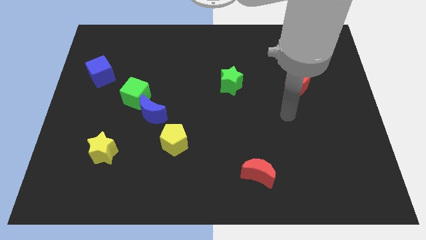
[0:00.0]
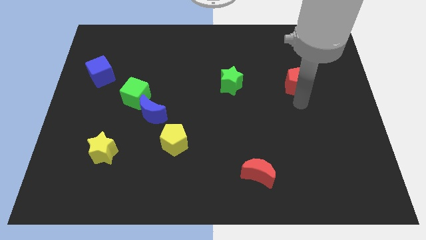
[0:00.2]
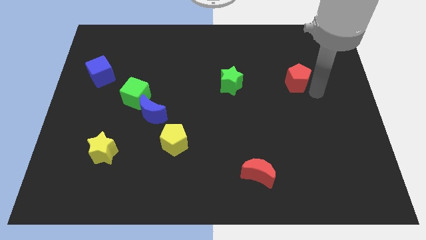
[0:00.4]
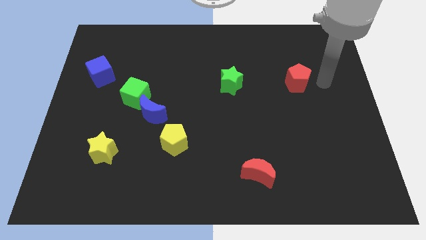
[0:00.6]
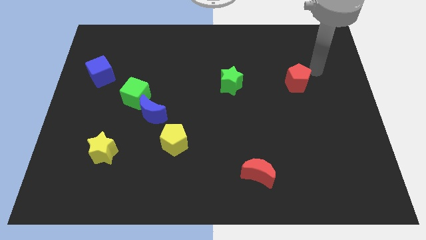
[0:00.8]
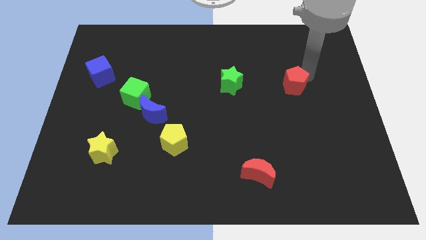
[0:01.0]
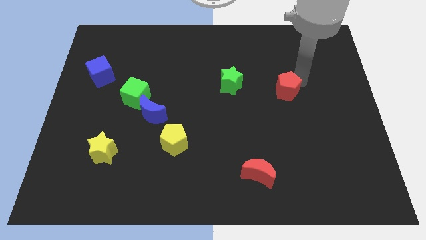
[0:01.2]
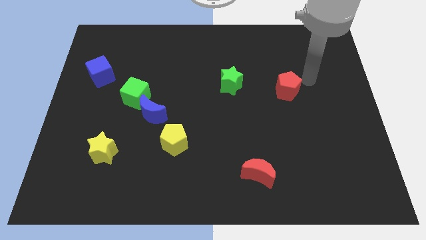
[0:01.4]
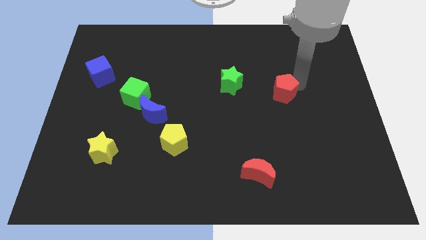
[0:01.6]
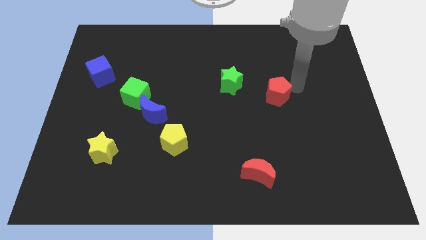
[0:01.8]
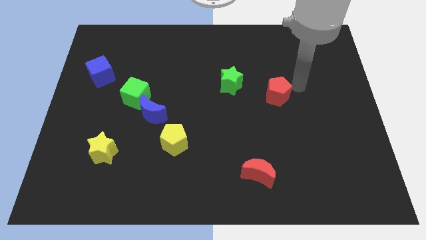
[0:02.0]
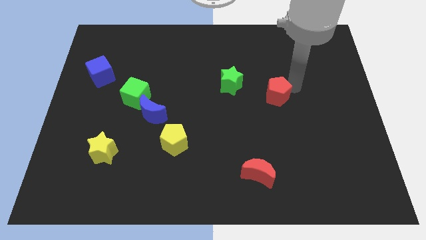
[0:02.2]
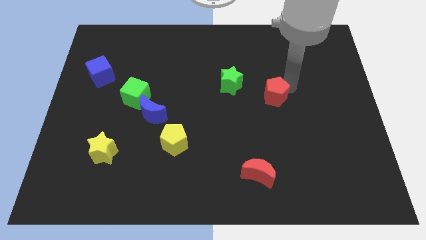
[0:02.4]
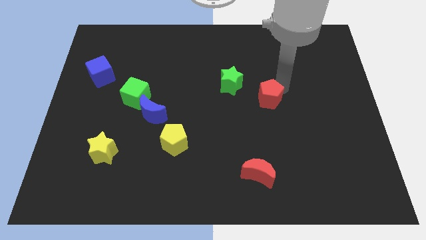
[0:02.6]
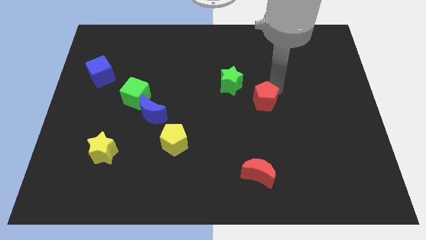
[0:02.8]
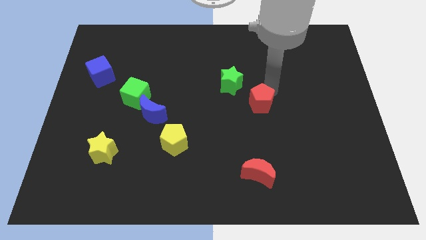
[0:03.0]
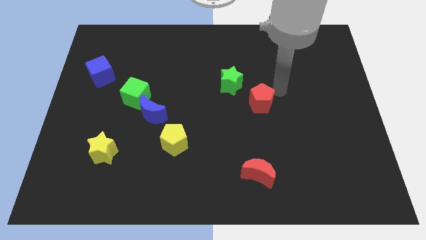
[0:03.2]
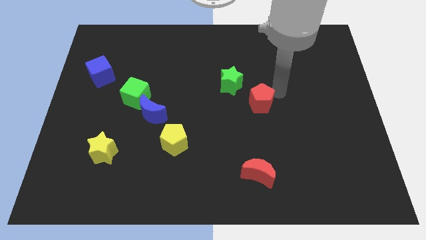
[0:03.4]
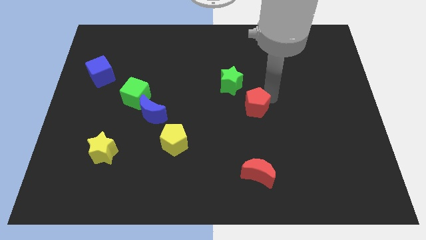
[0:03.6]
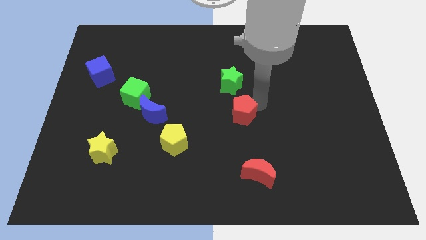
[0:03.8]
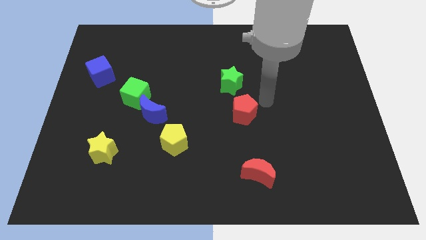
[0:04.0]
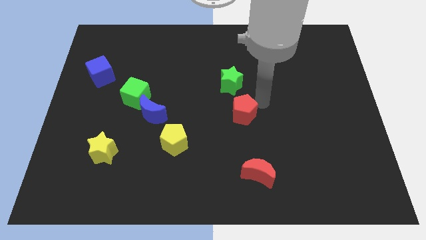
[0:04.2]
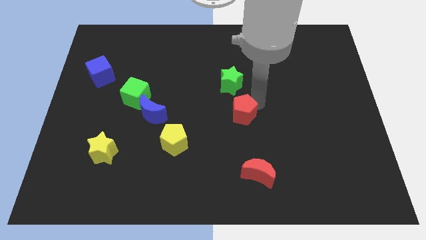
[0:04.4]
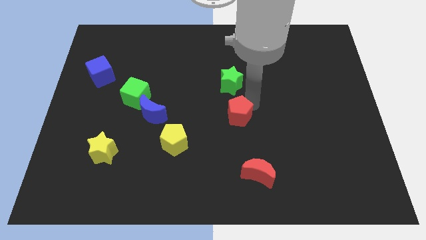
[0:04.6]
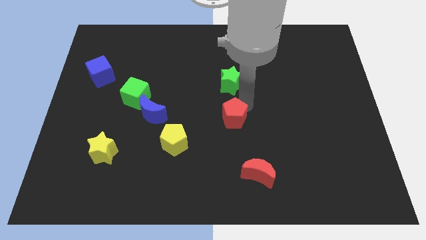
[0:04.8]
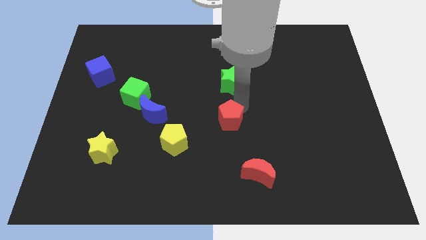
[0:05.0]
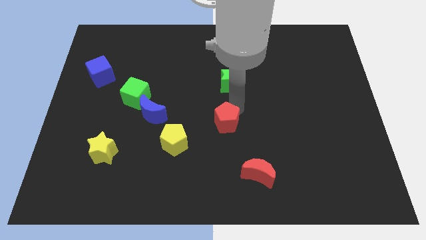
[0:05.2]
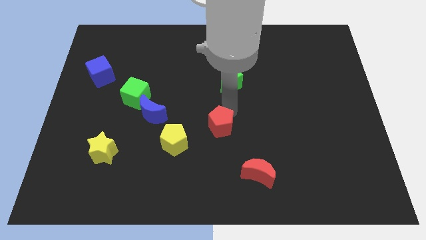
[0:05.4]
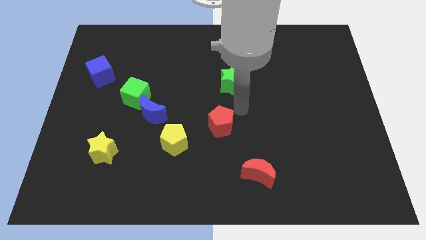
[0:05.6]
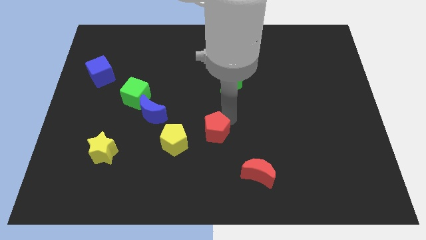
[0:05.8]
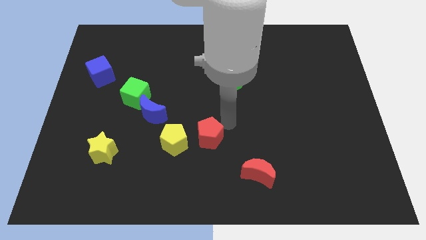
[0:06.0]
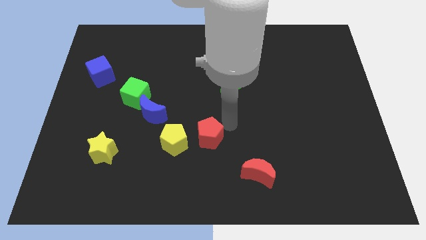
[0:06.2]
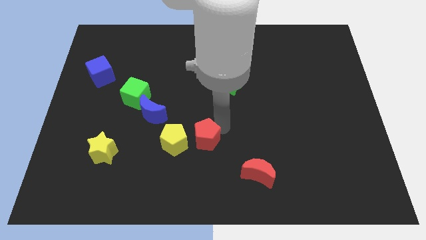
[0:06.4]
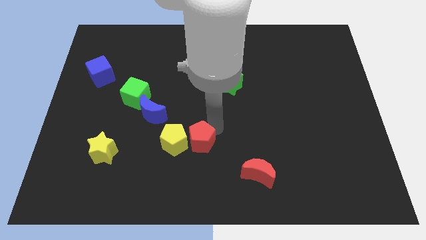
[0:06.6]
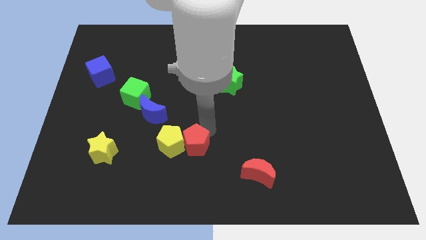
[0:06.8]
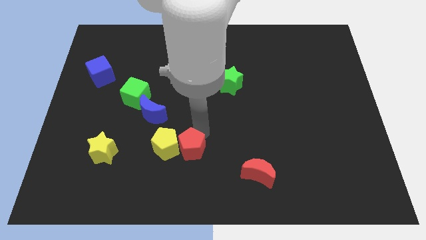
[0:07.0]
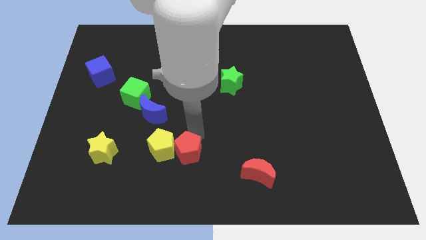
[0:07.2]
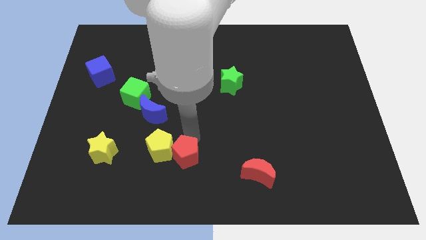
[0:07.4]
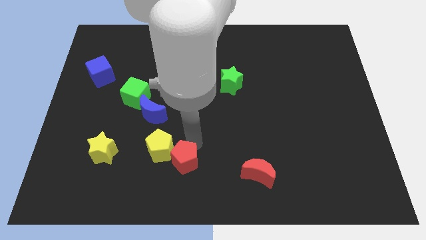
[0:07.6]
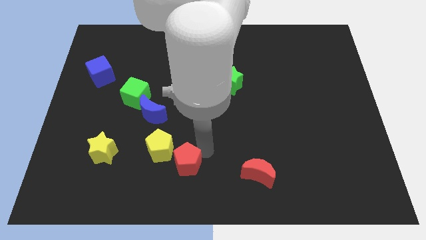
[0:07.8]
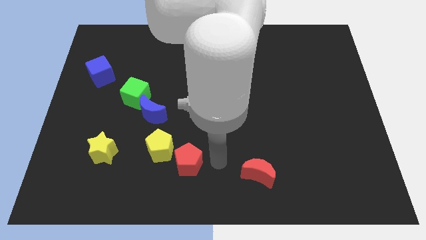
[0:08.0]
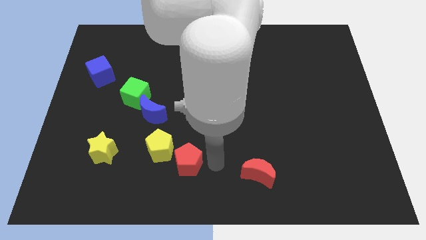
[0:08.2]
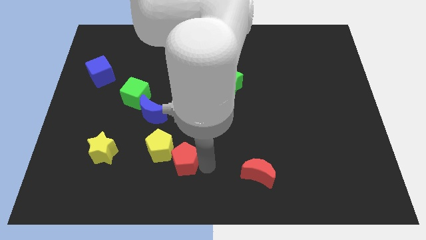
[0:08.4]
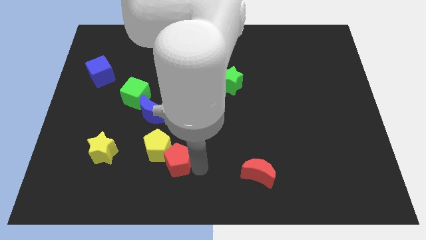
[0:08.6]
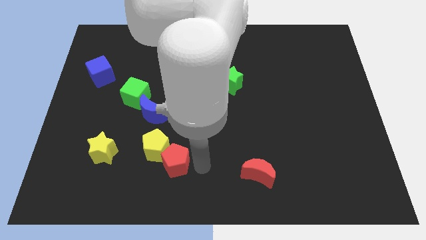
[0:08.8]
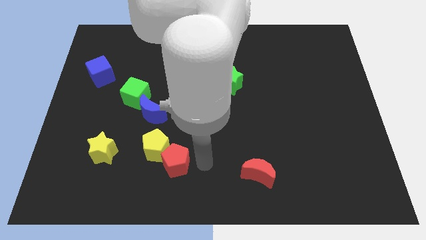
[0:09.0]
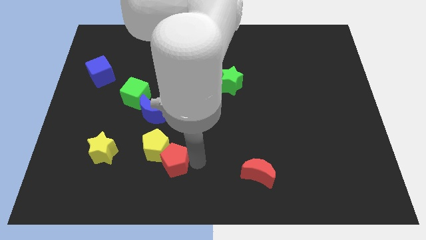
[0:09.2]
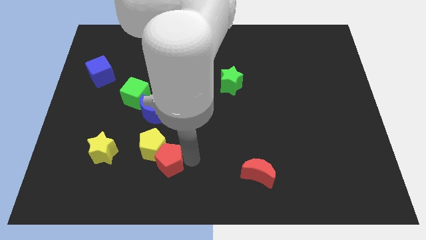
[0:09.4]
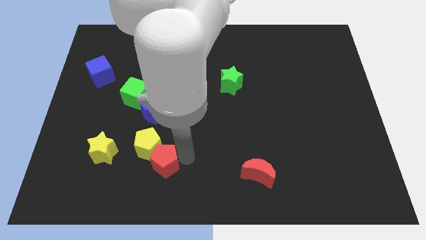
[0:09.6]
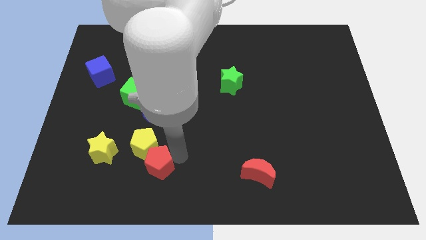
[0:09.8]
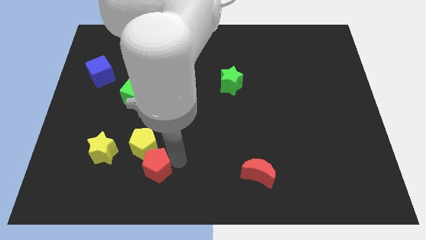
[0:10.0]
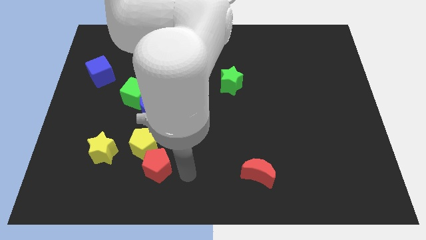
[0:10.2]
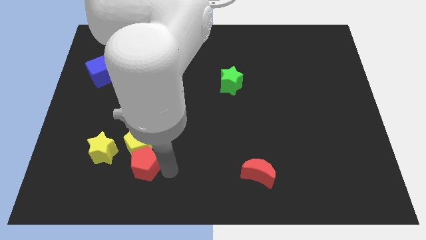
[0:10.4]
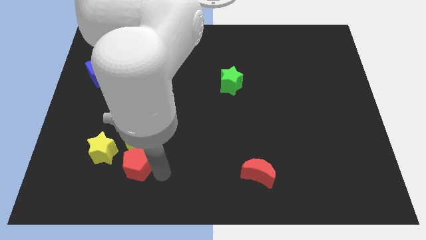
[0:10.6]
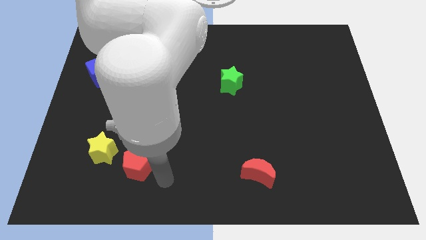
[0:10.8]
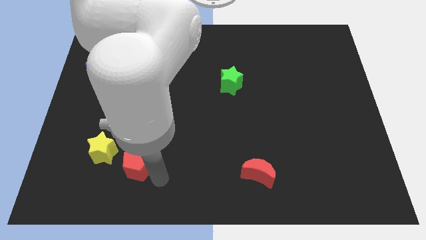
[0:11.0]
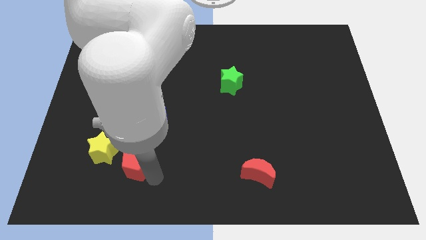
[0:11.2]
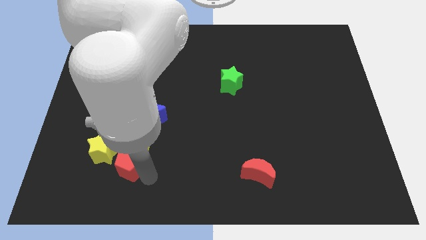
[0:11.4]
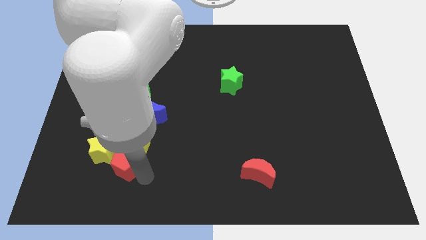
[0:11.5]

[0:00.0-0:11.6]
slide the red pentagon to the yellow star

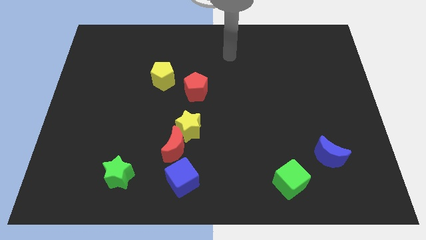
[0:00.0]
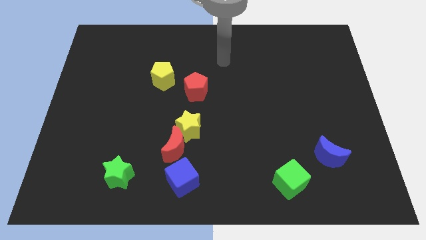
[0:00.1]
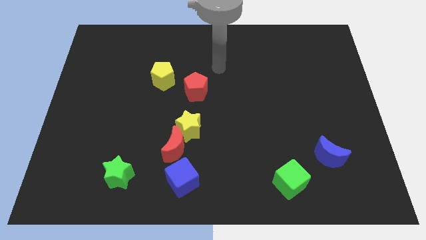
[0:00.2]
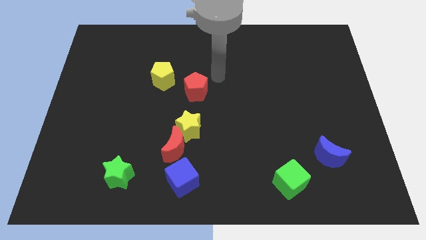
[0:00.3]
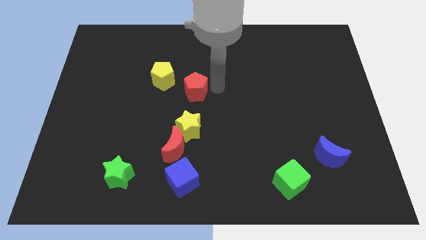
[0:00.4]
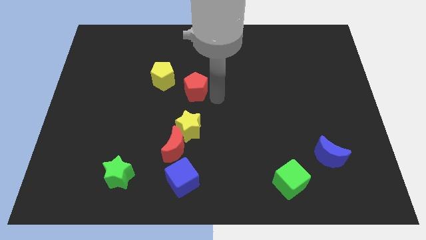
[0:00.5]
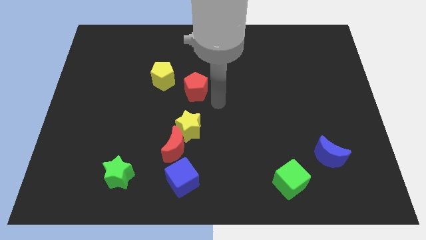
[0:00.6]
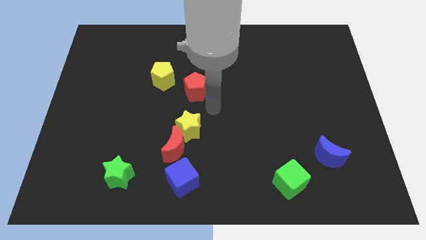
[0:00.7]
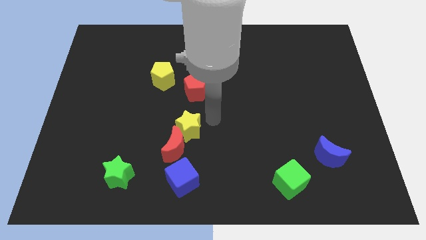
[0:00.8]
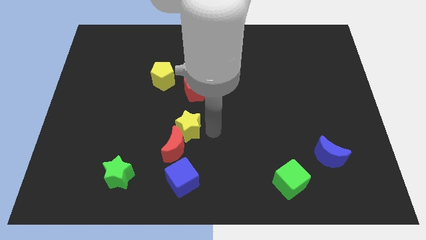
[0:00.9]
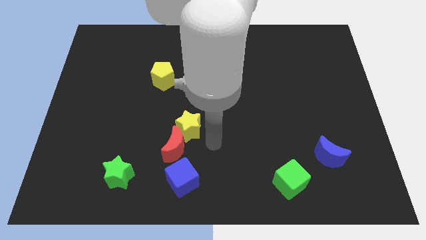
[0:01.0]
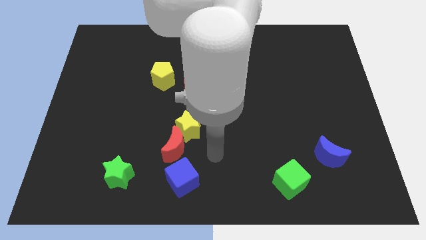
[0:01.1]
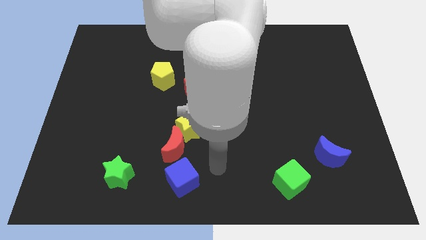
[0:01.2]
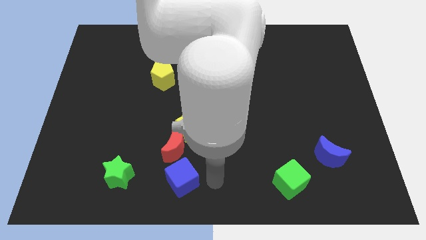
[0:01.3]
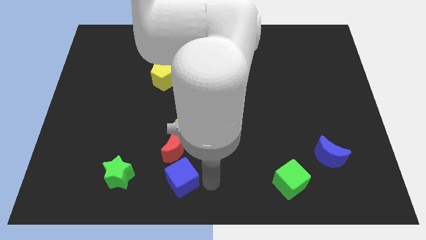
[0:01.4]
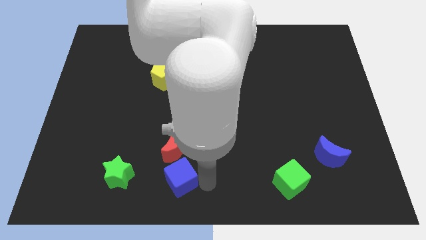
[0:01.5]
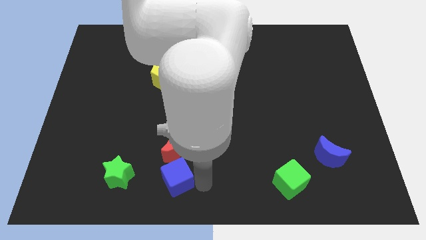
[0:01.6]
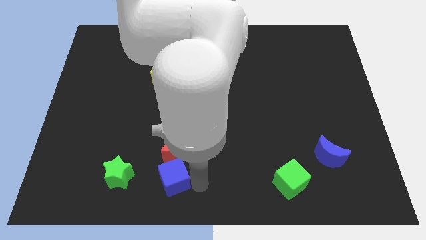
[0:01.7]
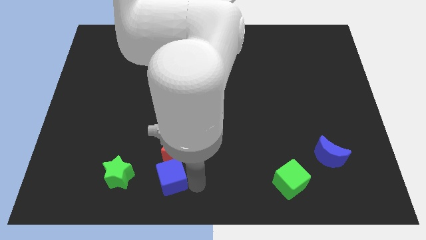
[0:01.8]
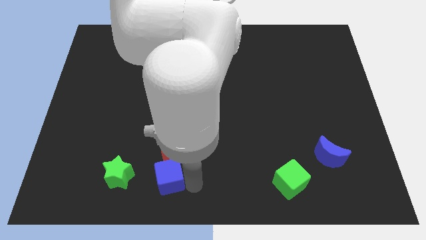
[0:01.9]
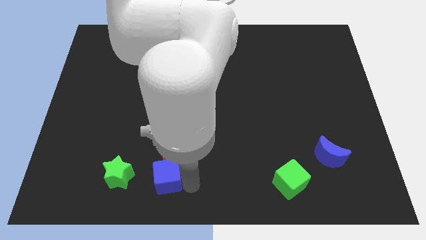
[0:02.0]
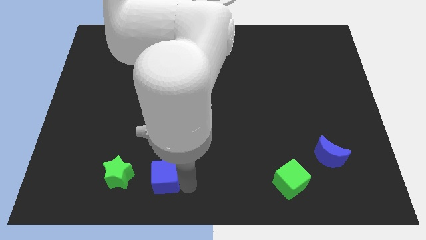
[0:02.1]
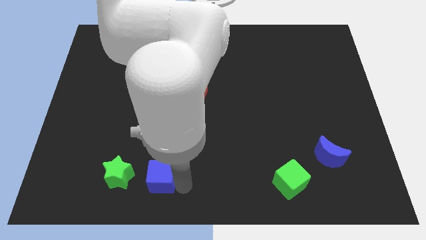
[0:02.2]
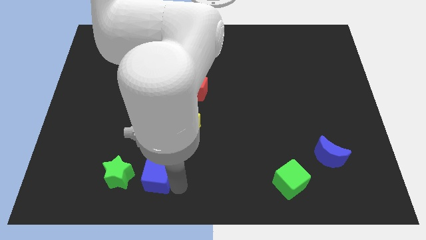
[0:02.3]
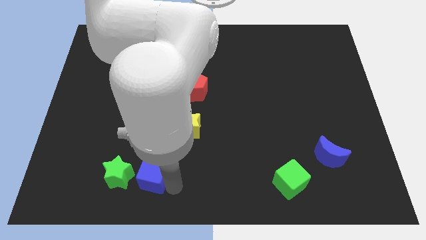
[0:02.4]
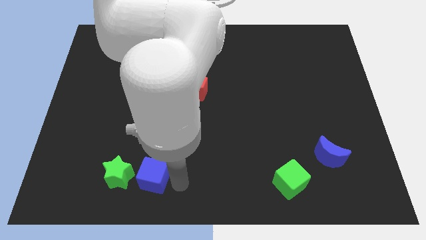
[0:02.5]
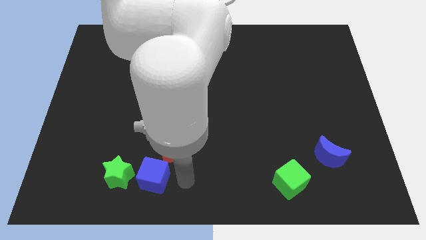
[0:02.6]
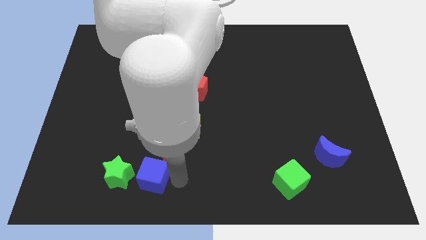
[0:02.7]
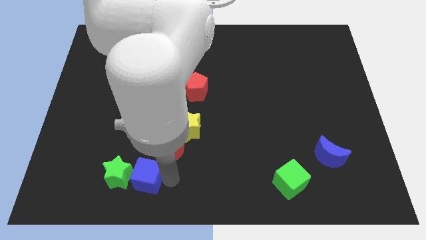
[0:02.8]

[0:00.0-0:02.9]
move the blue cube to the green star
